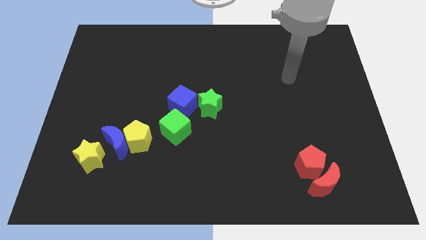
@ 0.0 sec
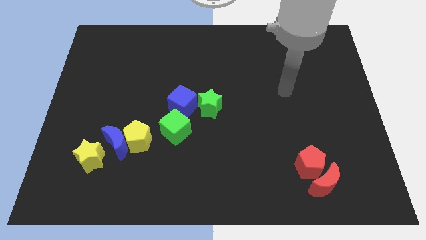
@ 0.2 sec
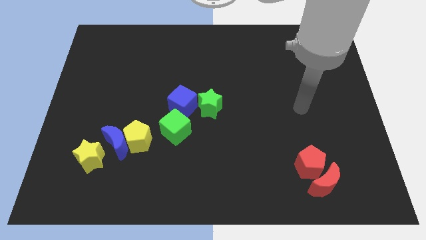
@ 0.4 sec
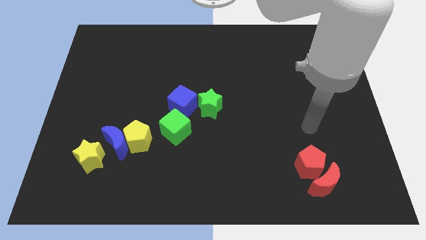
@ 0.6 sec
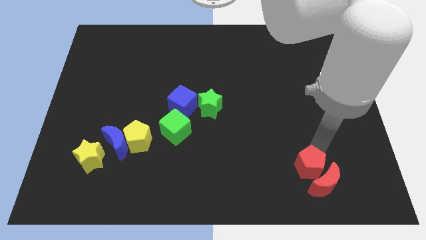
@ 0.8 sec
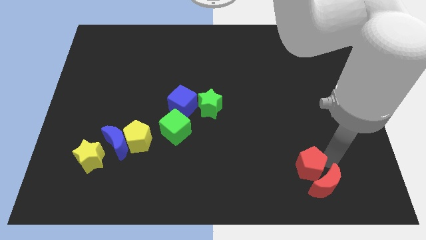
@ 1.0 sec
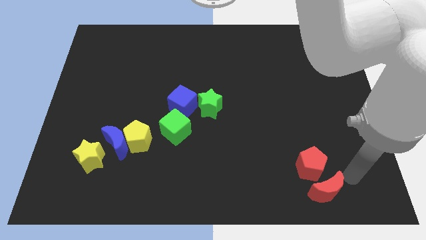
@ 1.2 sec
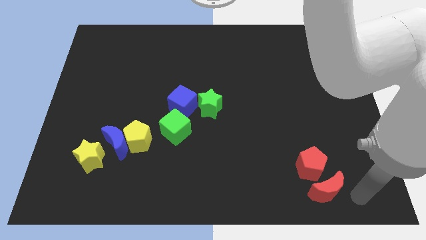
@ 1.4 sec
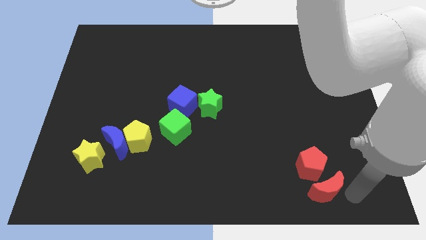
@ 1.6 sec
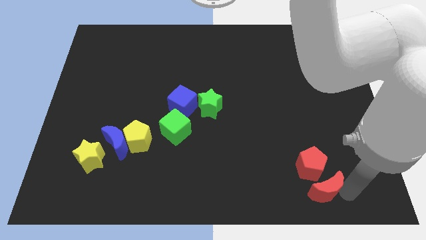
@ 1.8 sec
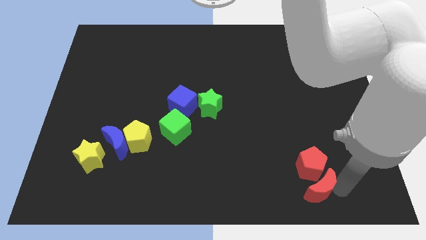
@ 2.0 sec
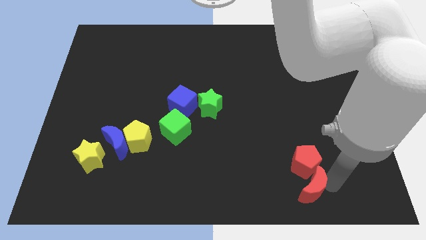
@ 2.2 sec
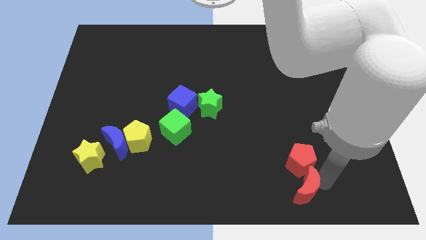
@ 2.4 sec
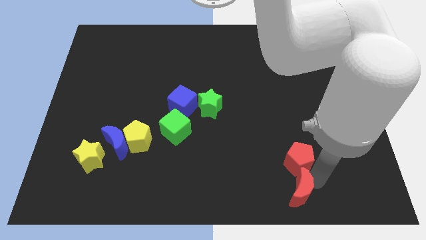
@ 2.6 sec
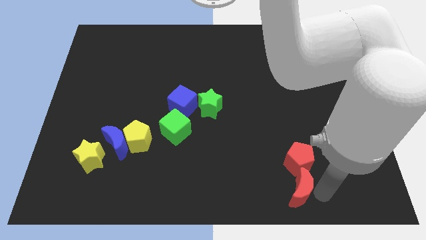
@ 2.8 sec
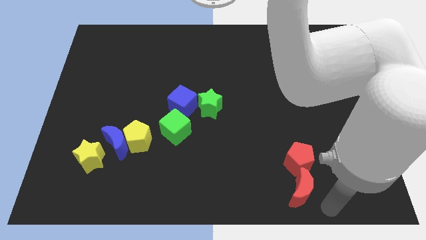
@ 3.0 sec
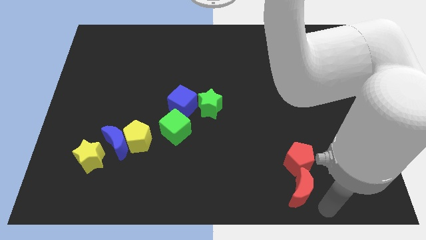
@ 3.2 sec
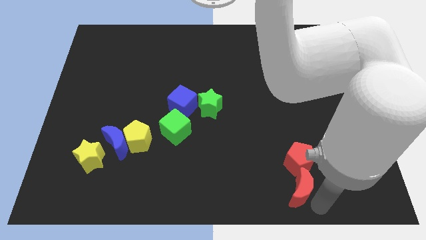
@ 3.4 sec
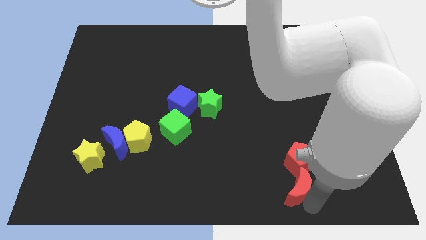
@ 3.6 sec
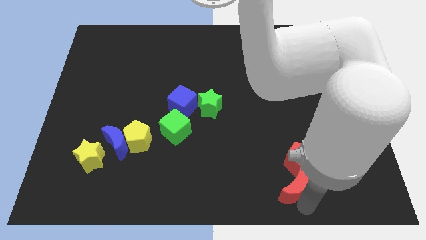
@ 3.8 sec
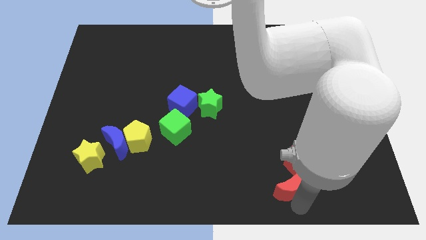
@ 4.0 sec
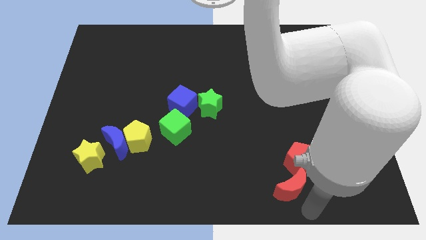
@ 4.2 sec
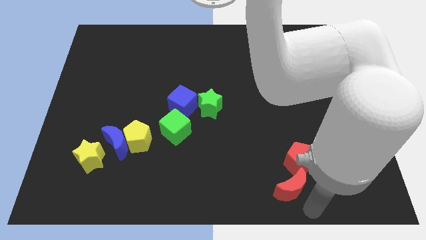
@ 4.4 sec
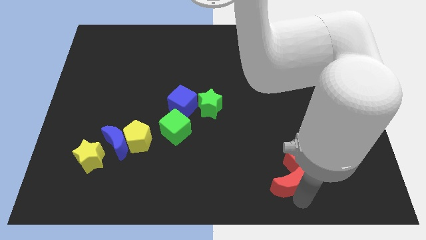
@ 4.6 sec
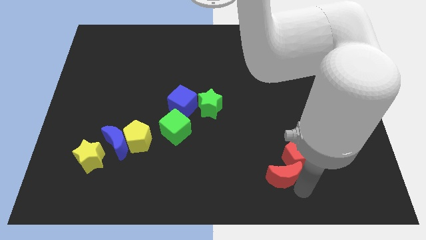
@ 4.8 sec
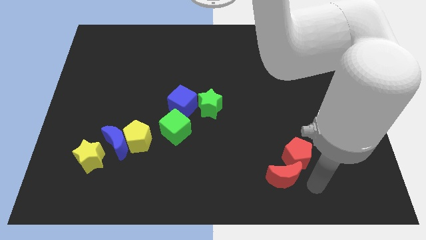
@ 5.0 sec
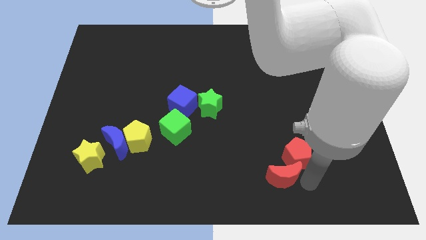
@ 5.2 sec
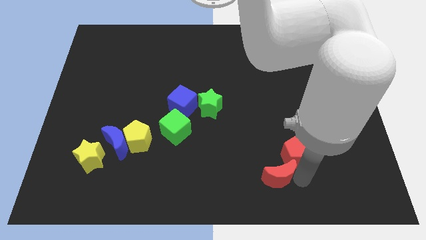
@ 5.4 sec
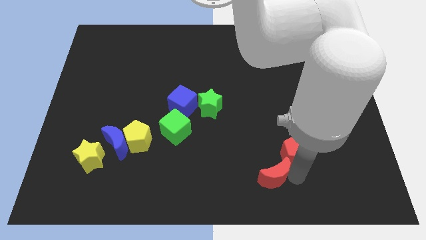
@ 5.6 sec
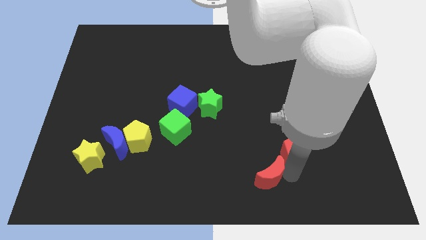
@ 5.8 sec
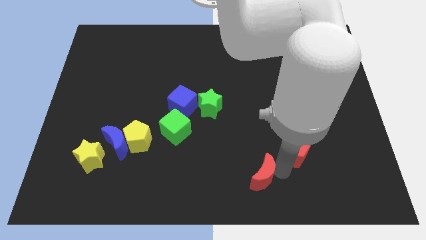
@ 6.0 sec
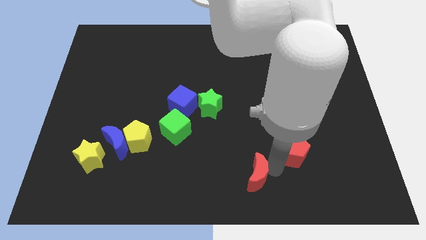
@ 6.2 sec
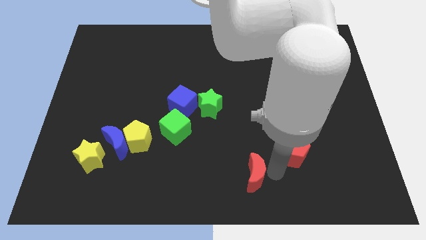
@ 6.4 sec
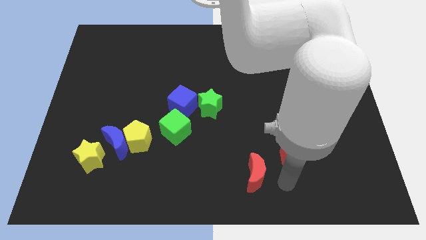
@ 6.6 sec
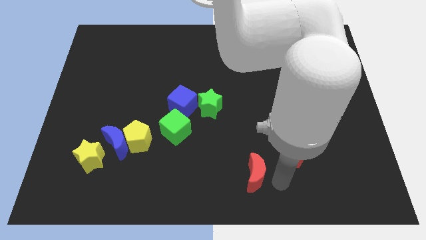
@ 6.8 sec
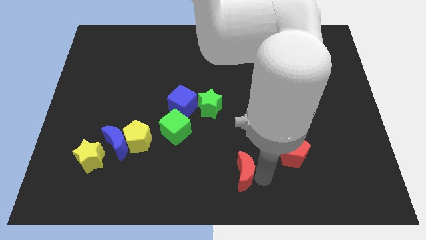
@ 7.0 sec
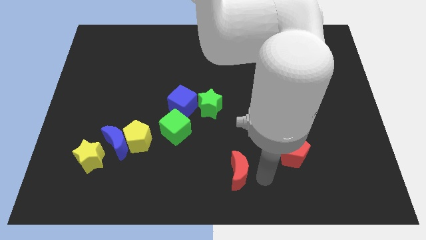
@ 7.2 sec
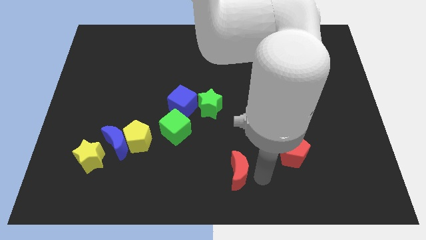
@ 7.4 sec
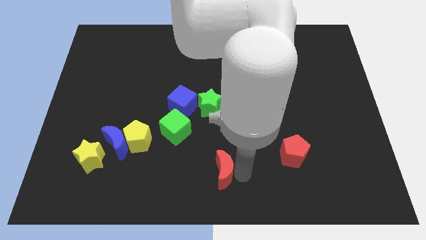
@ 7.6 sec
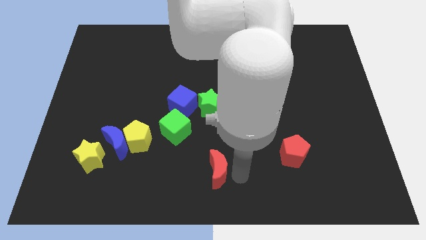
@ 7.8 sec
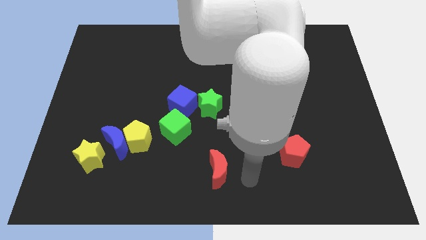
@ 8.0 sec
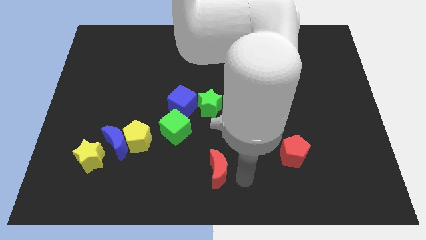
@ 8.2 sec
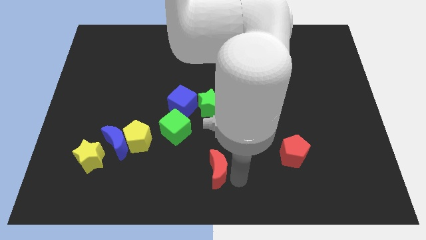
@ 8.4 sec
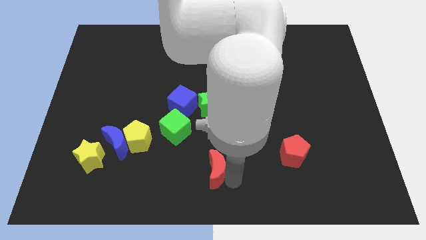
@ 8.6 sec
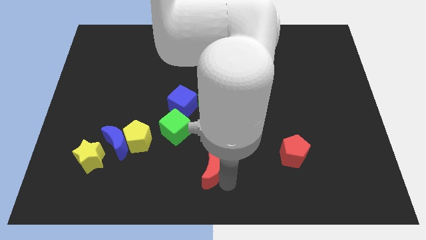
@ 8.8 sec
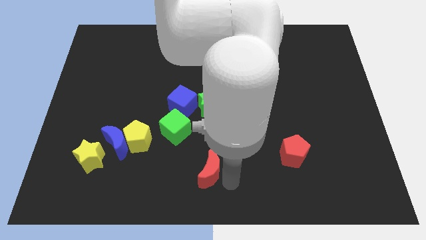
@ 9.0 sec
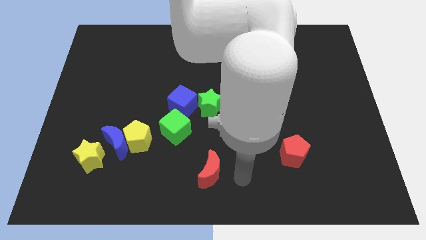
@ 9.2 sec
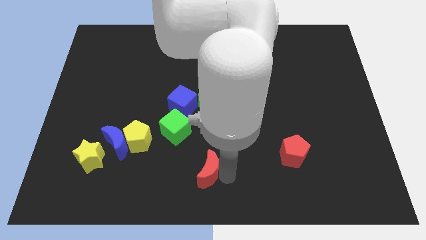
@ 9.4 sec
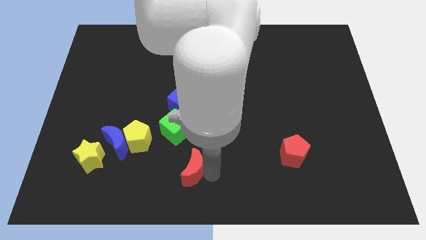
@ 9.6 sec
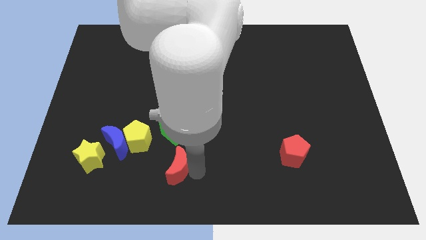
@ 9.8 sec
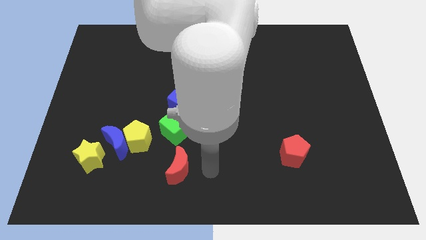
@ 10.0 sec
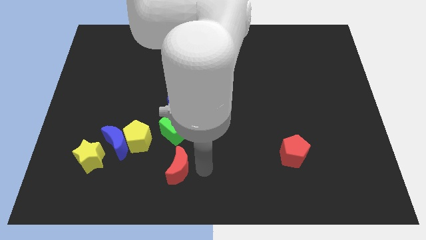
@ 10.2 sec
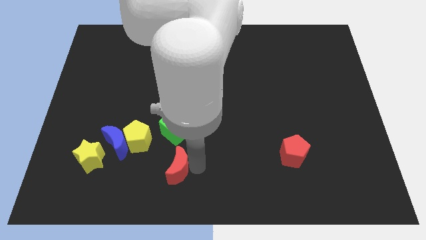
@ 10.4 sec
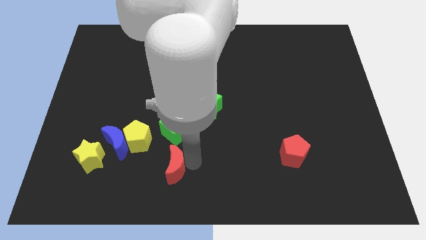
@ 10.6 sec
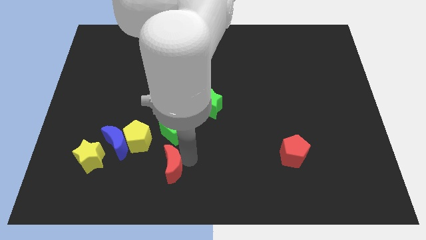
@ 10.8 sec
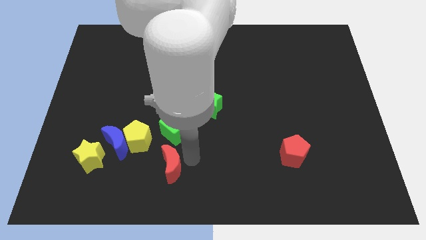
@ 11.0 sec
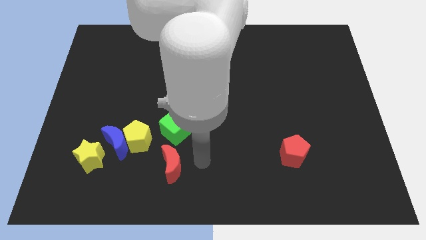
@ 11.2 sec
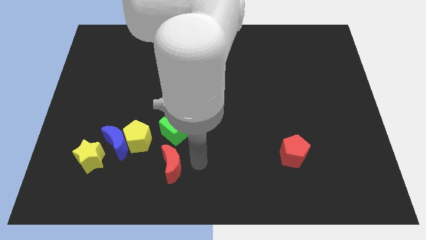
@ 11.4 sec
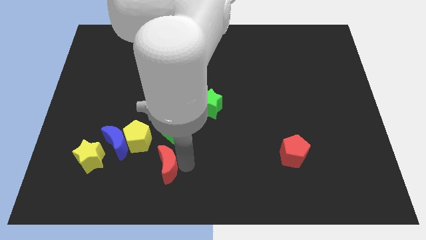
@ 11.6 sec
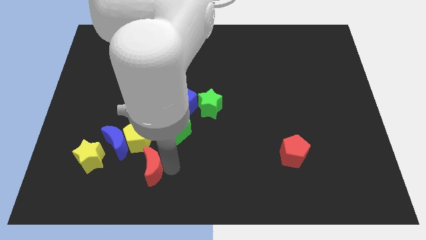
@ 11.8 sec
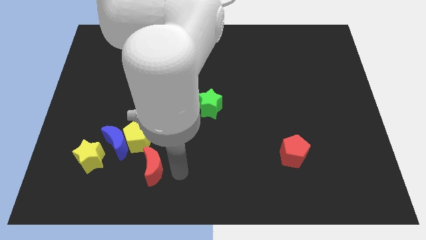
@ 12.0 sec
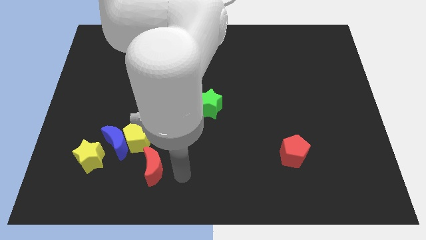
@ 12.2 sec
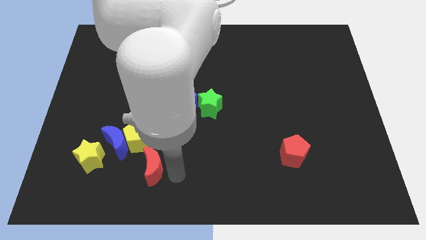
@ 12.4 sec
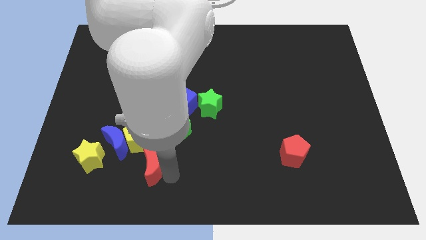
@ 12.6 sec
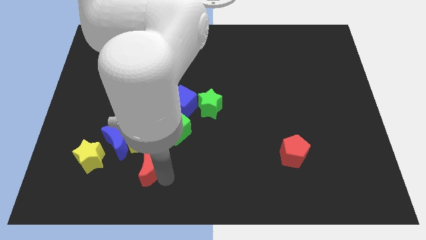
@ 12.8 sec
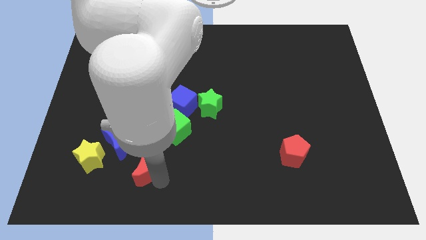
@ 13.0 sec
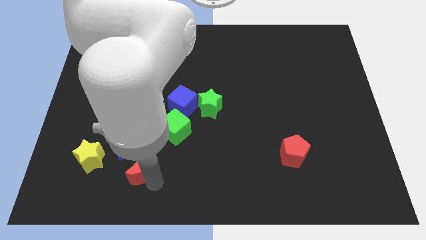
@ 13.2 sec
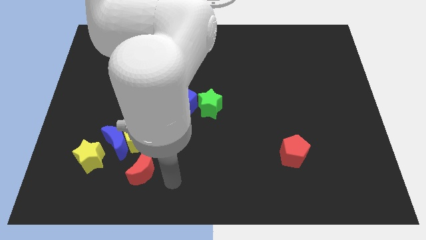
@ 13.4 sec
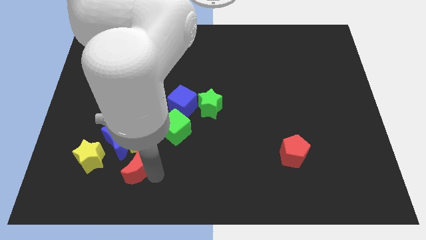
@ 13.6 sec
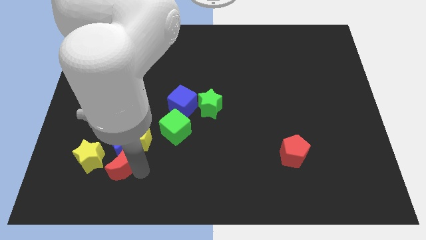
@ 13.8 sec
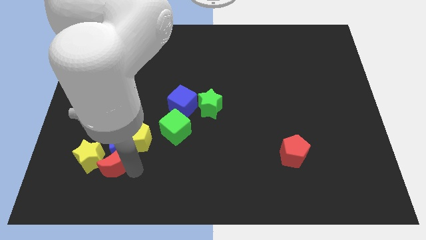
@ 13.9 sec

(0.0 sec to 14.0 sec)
move the red moon towards the yellow star
